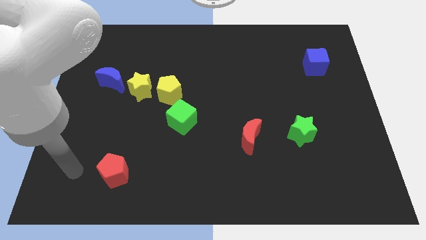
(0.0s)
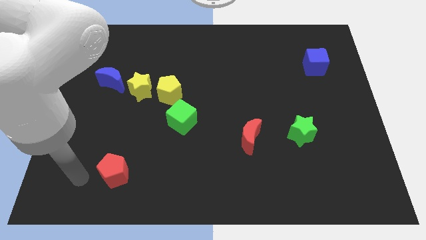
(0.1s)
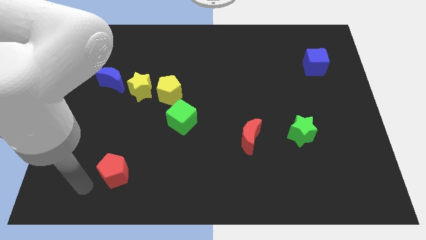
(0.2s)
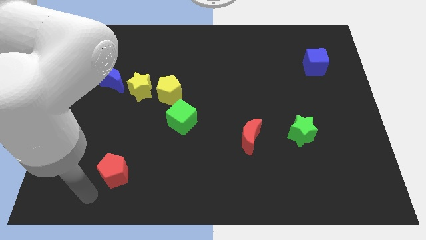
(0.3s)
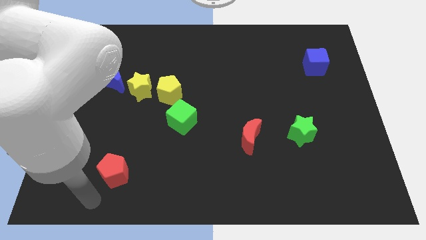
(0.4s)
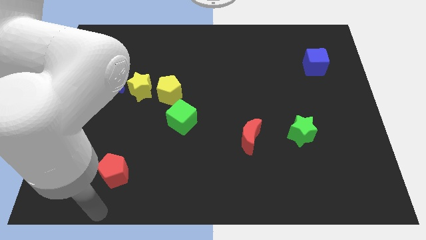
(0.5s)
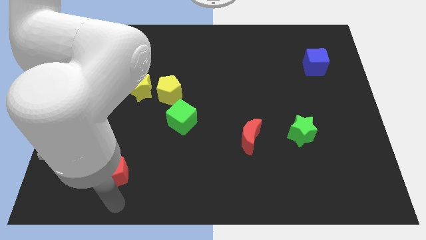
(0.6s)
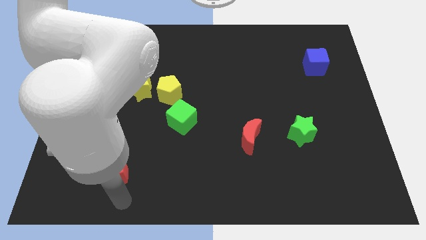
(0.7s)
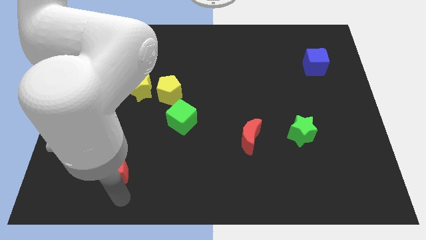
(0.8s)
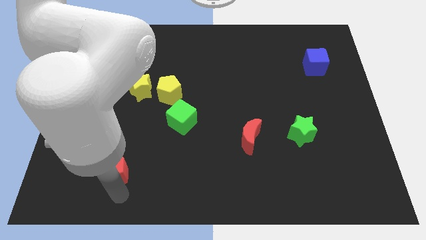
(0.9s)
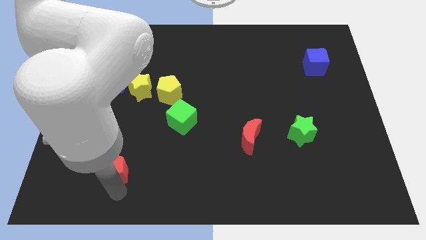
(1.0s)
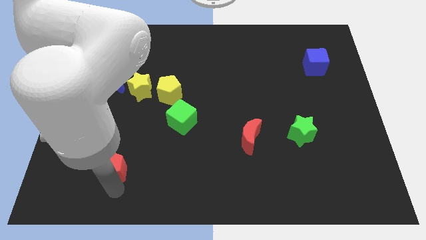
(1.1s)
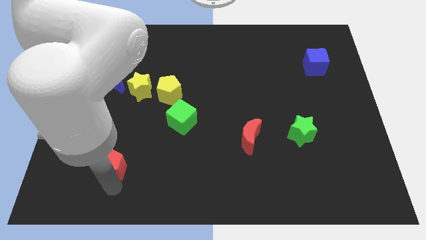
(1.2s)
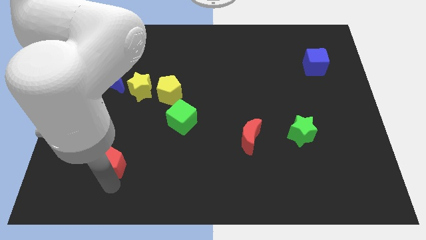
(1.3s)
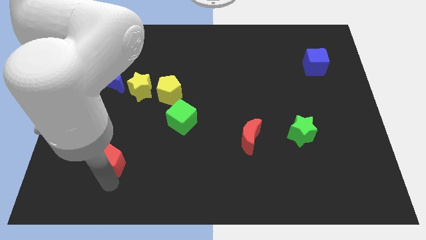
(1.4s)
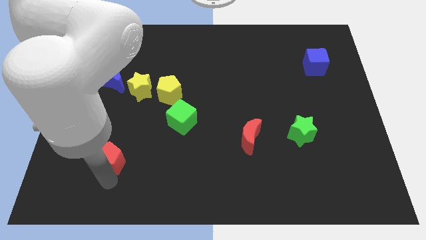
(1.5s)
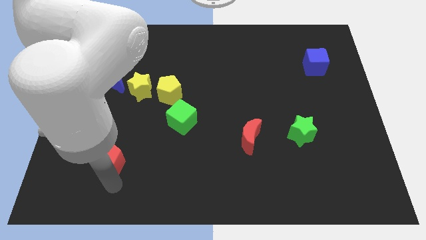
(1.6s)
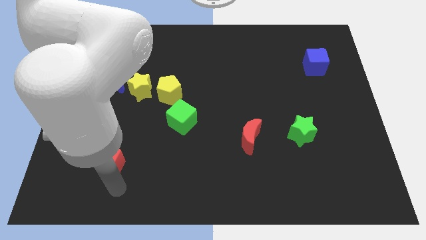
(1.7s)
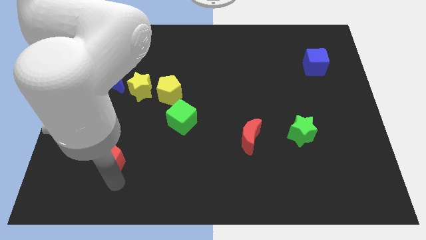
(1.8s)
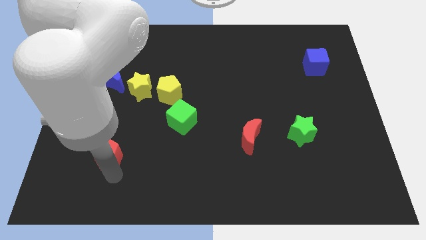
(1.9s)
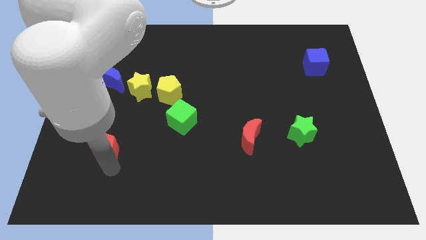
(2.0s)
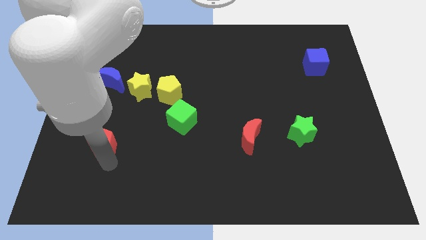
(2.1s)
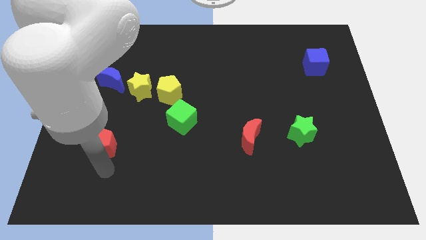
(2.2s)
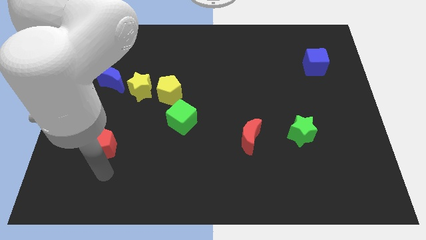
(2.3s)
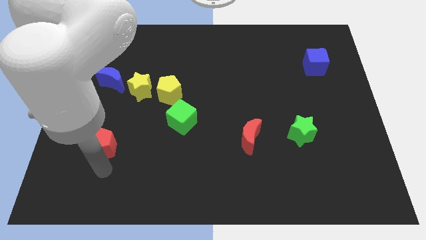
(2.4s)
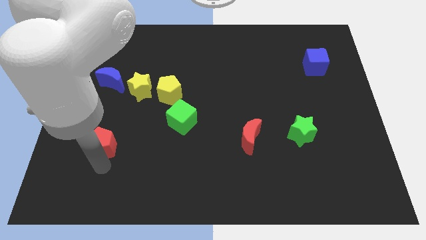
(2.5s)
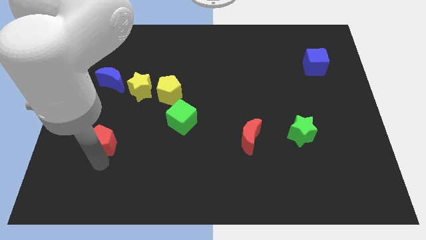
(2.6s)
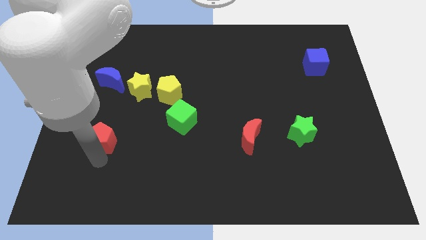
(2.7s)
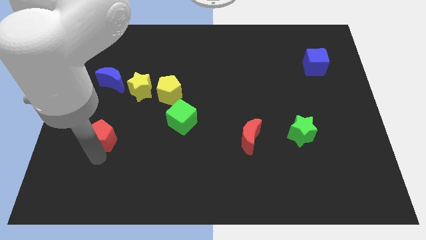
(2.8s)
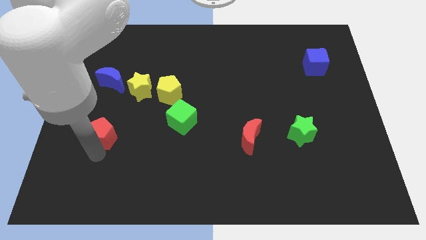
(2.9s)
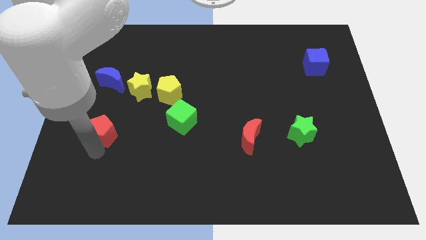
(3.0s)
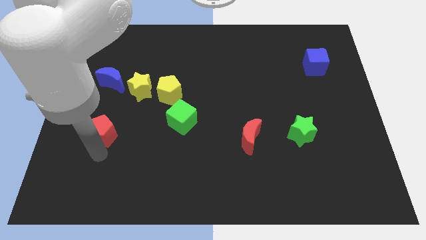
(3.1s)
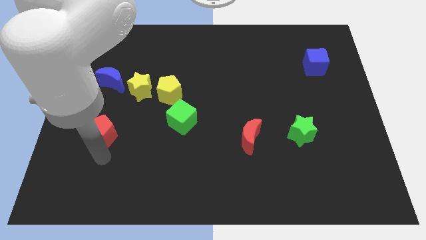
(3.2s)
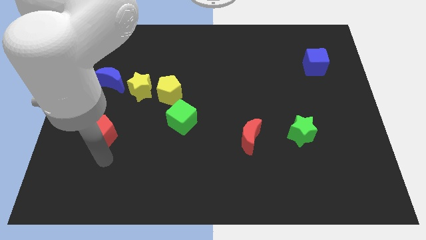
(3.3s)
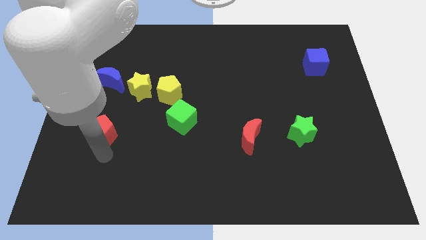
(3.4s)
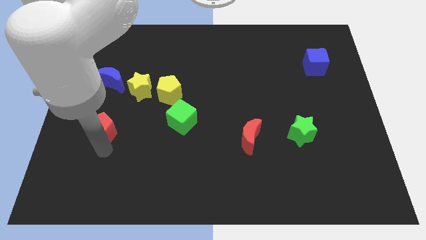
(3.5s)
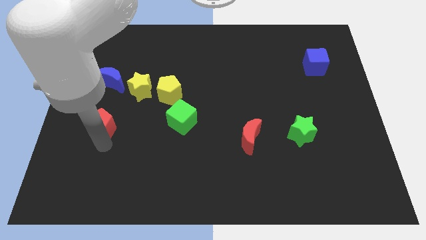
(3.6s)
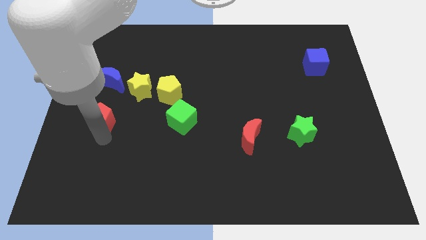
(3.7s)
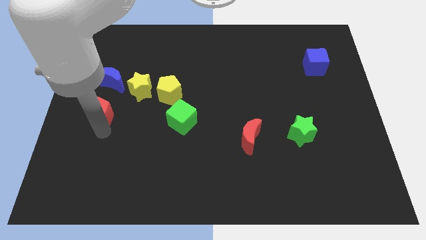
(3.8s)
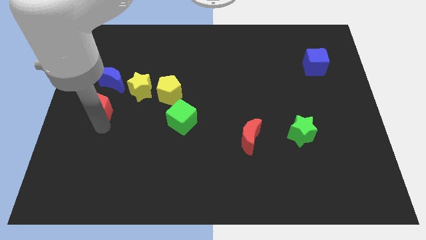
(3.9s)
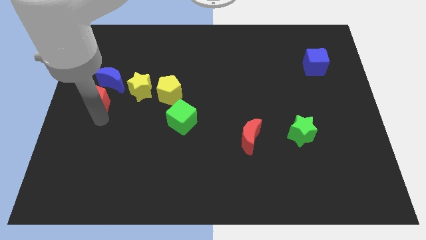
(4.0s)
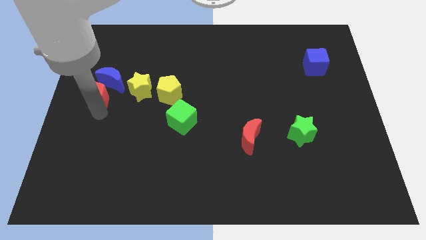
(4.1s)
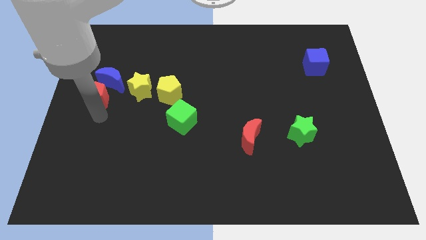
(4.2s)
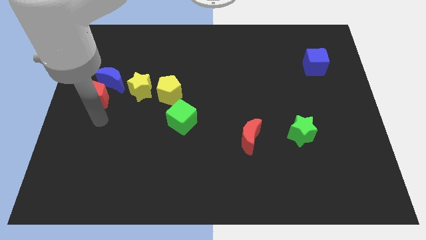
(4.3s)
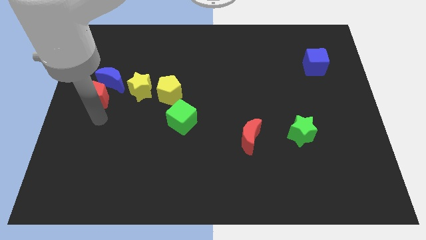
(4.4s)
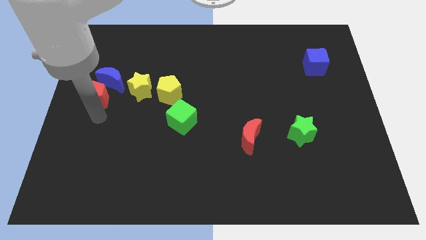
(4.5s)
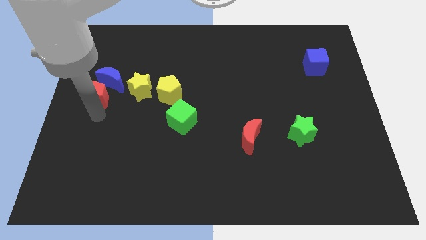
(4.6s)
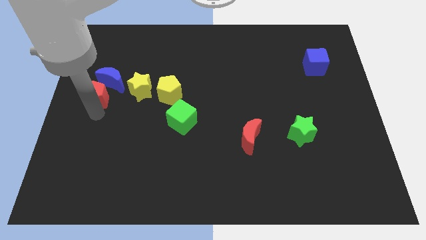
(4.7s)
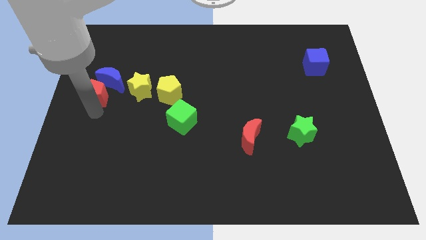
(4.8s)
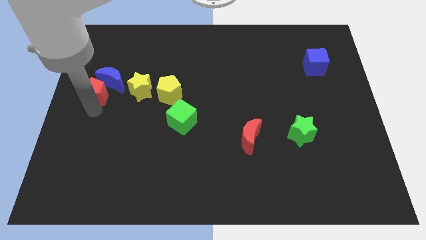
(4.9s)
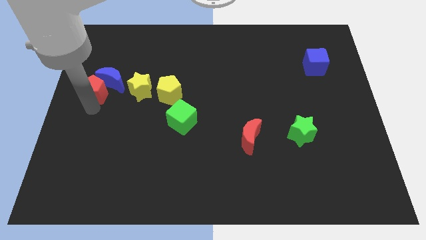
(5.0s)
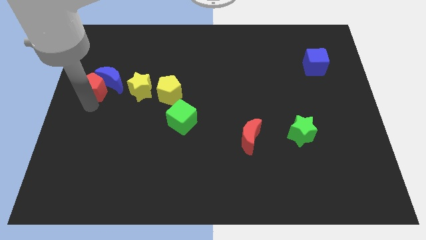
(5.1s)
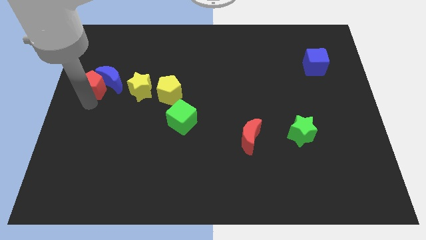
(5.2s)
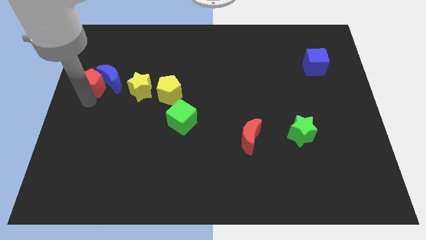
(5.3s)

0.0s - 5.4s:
push the red pentagon up

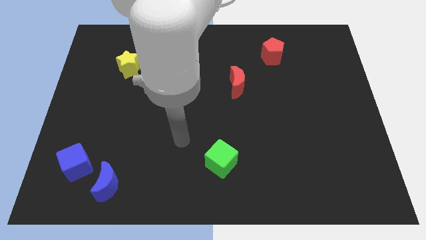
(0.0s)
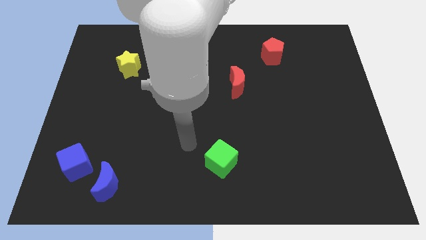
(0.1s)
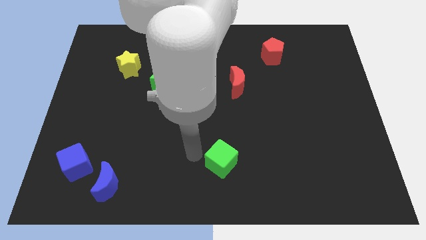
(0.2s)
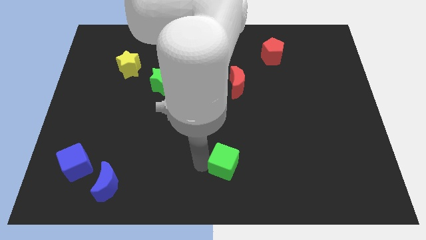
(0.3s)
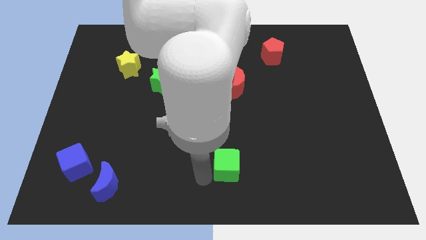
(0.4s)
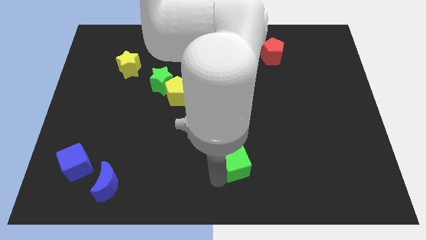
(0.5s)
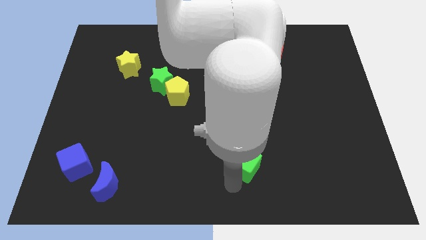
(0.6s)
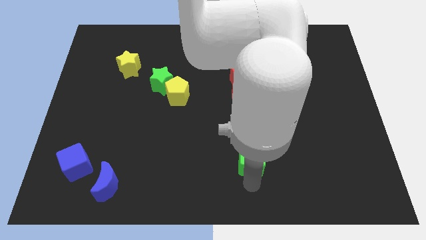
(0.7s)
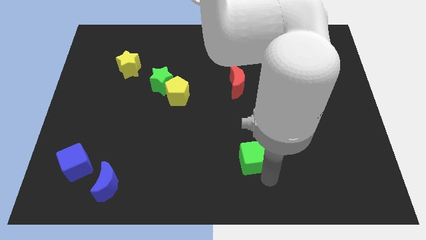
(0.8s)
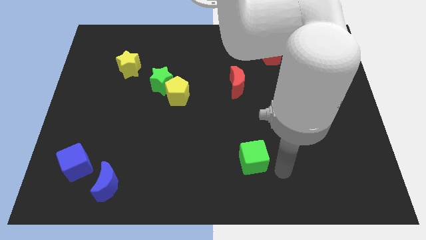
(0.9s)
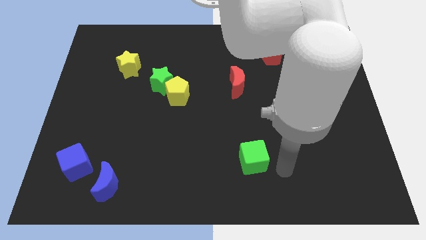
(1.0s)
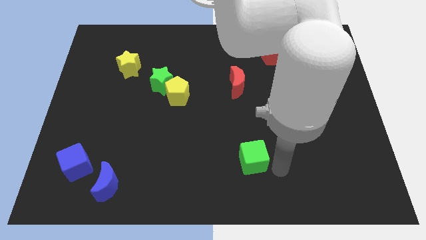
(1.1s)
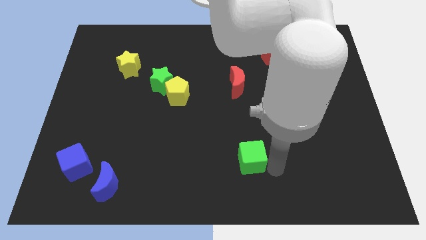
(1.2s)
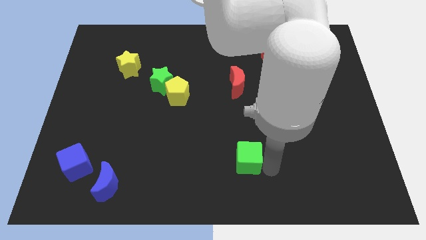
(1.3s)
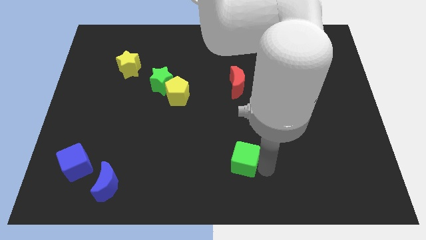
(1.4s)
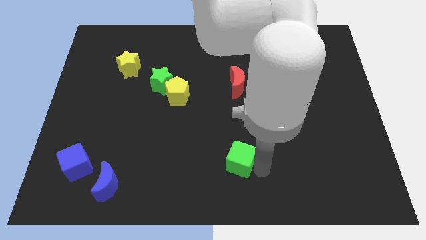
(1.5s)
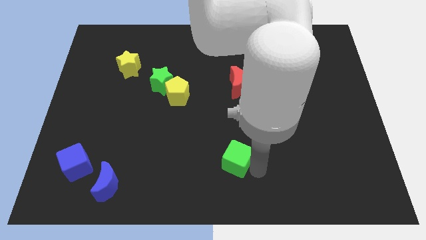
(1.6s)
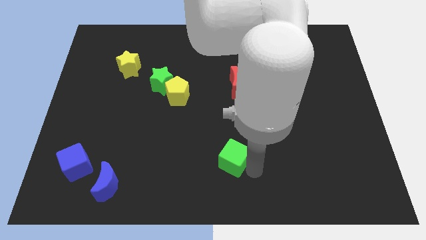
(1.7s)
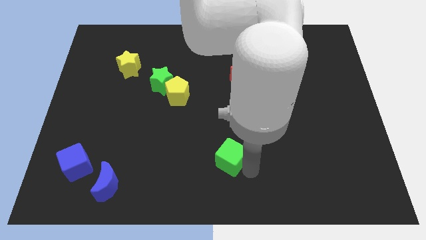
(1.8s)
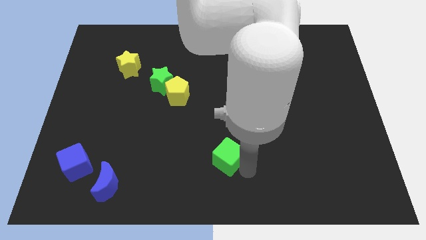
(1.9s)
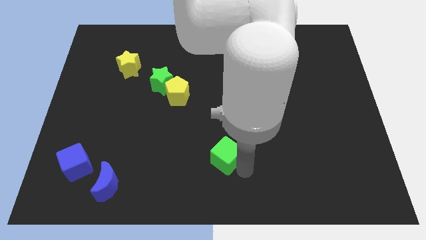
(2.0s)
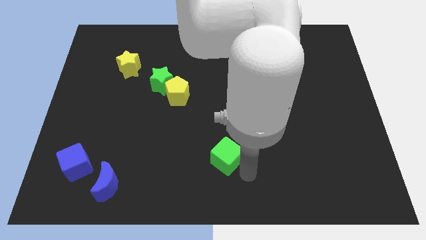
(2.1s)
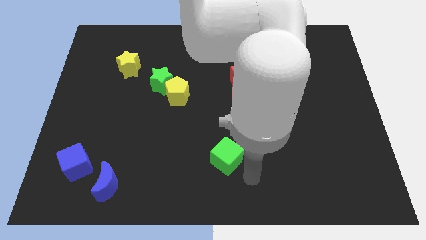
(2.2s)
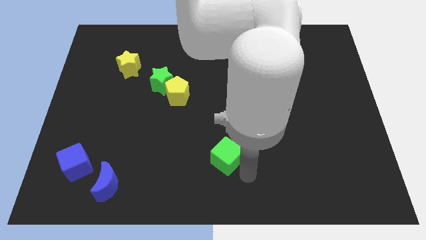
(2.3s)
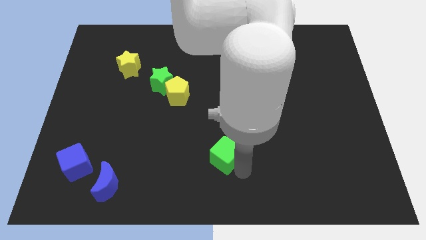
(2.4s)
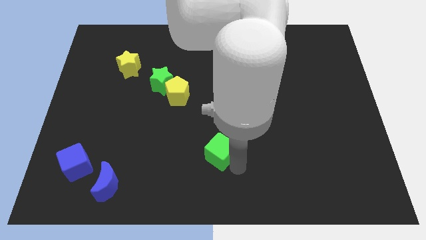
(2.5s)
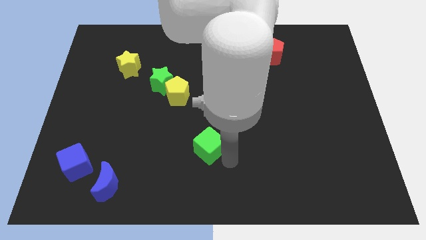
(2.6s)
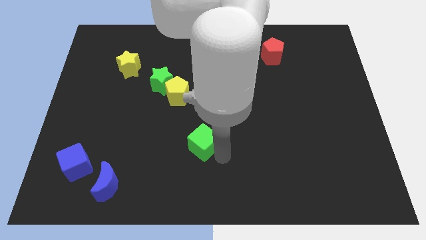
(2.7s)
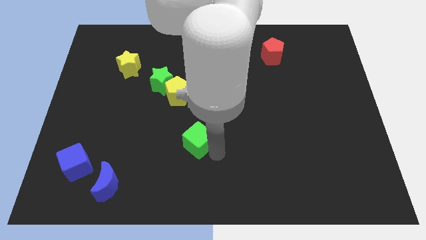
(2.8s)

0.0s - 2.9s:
slightly slide the green cube up and then to the left

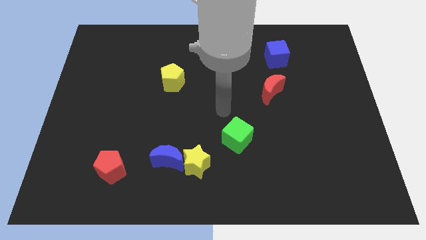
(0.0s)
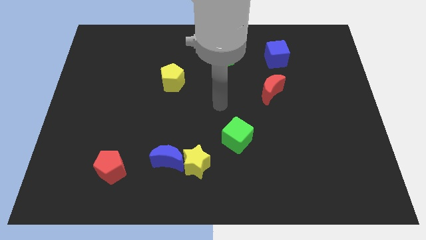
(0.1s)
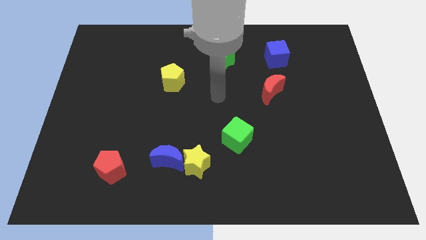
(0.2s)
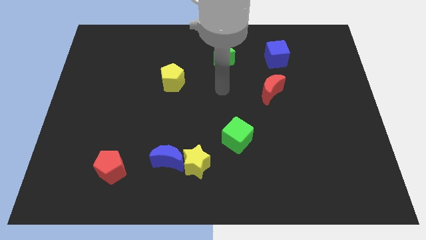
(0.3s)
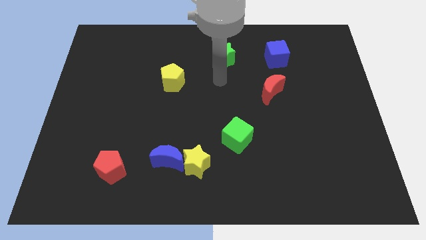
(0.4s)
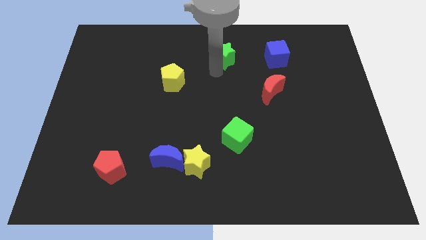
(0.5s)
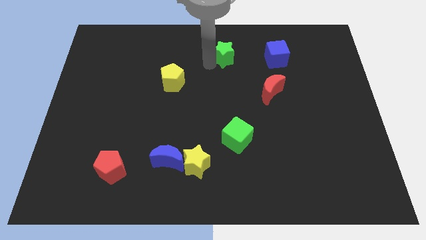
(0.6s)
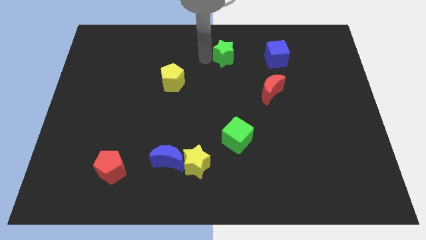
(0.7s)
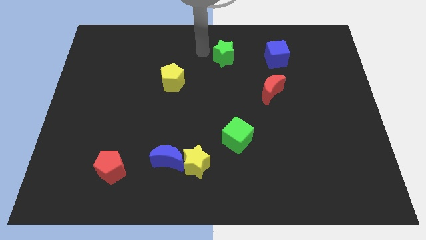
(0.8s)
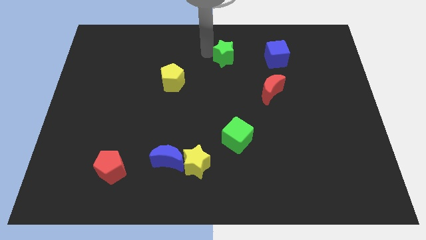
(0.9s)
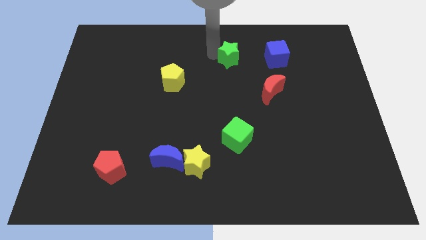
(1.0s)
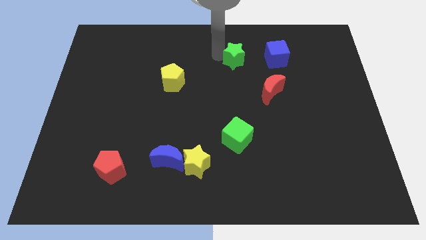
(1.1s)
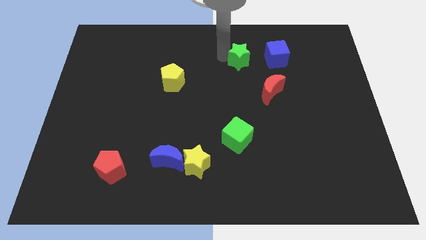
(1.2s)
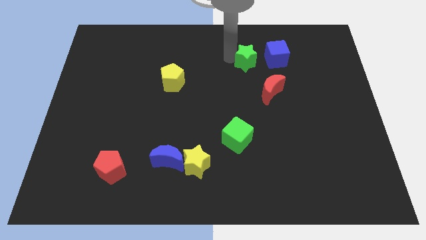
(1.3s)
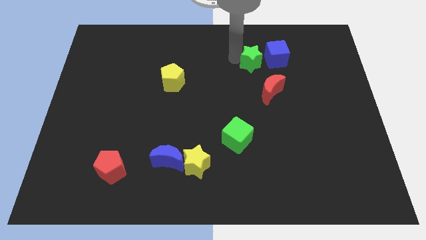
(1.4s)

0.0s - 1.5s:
slide the green star to the right a bit
